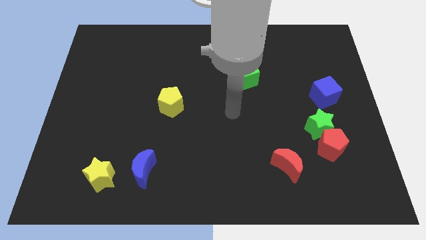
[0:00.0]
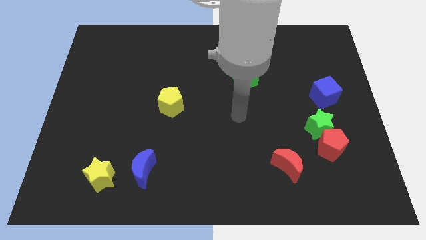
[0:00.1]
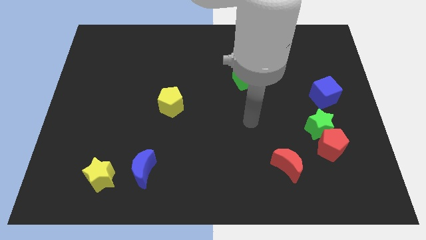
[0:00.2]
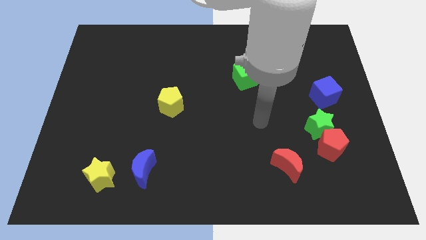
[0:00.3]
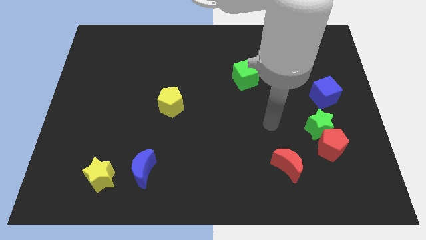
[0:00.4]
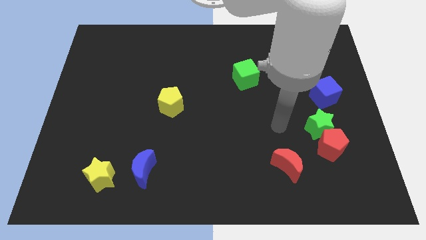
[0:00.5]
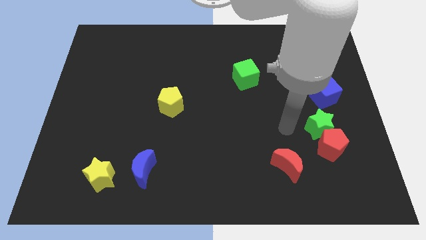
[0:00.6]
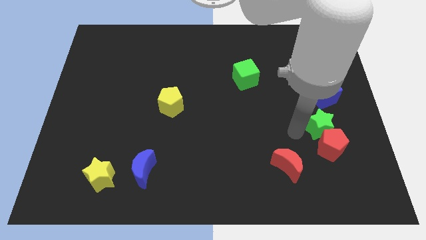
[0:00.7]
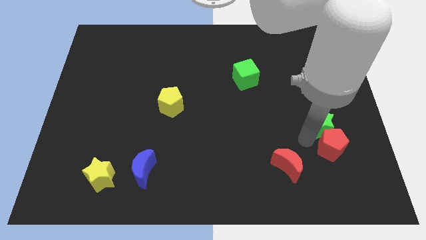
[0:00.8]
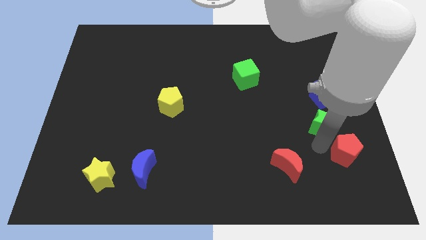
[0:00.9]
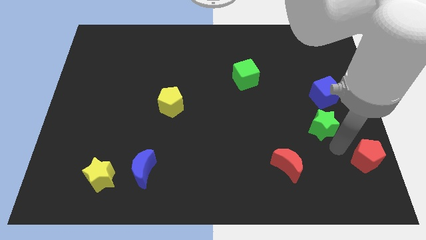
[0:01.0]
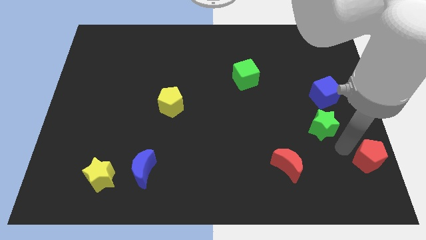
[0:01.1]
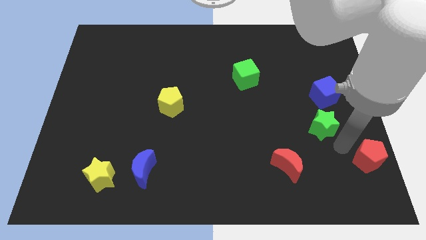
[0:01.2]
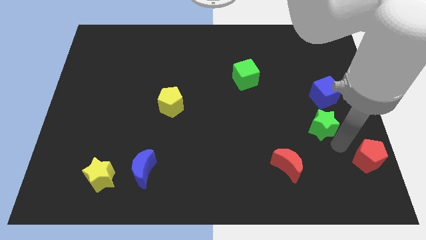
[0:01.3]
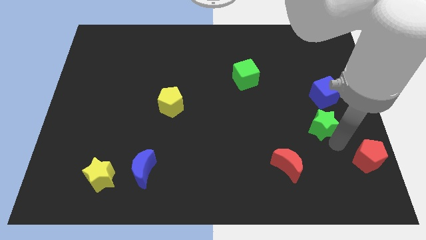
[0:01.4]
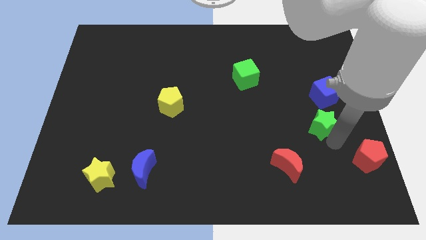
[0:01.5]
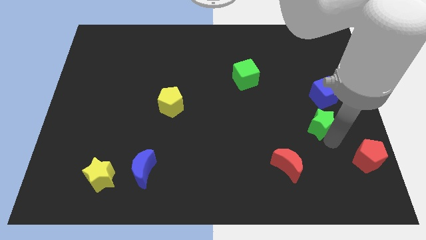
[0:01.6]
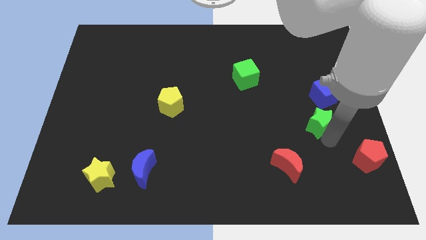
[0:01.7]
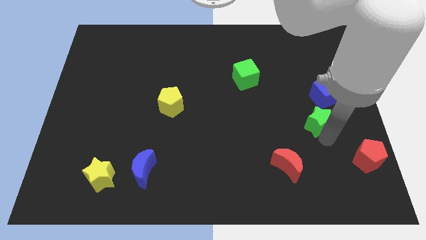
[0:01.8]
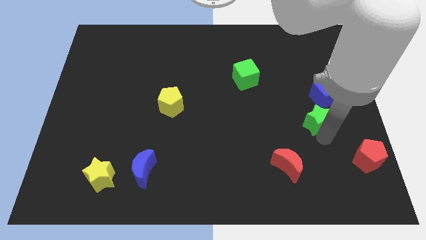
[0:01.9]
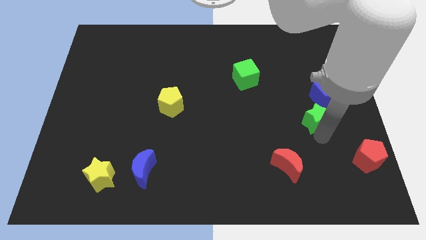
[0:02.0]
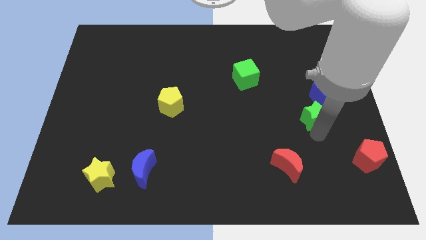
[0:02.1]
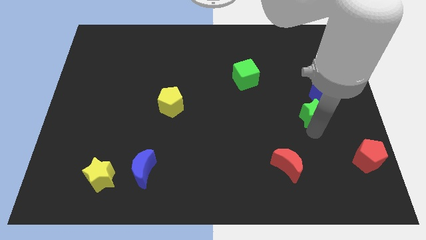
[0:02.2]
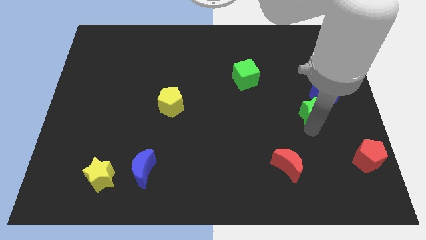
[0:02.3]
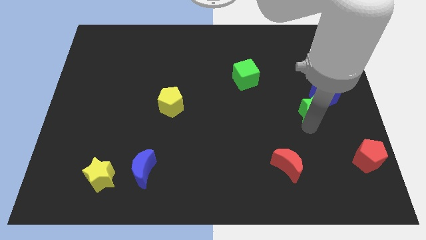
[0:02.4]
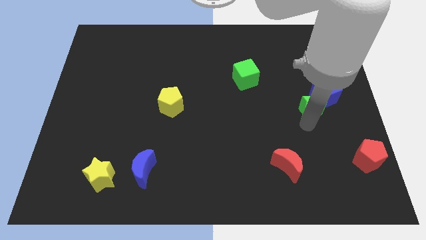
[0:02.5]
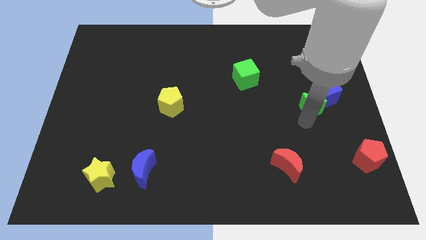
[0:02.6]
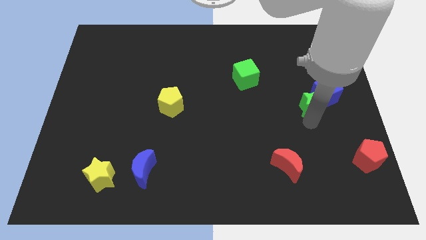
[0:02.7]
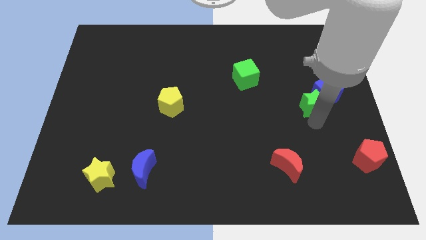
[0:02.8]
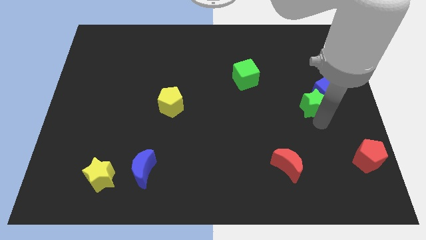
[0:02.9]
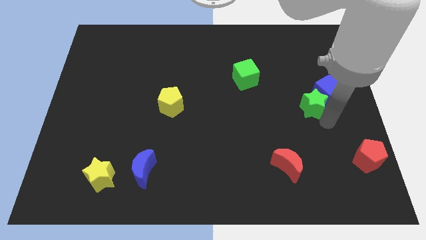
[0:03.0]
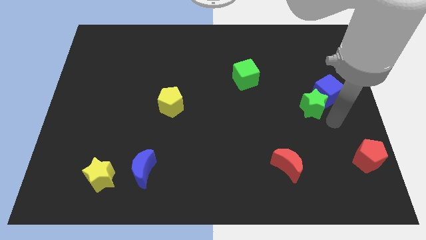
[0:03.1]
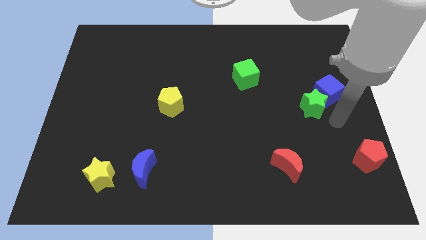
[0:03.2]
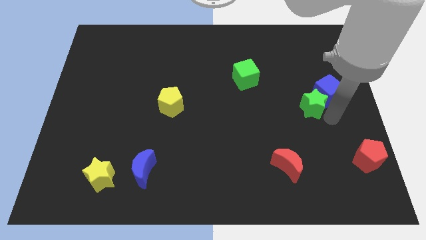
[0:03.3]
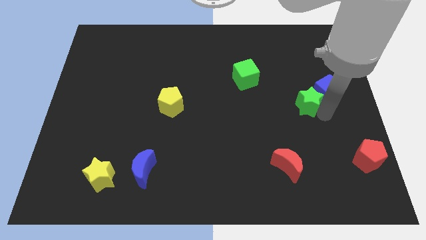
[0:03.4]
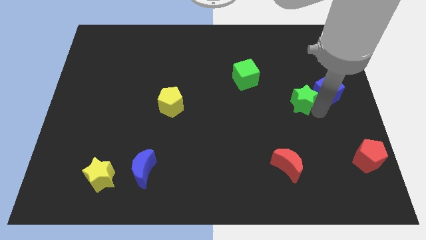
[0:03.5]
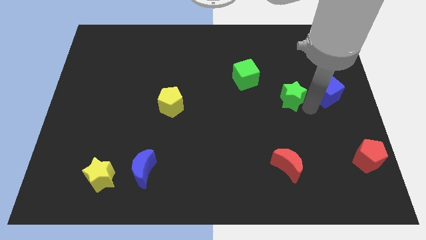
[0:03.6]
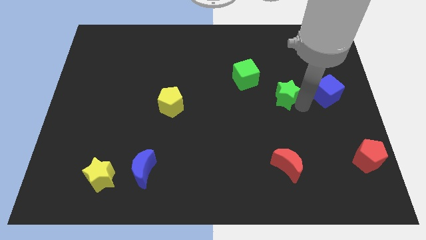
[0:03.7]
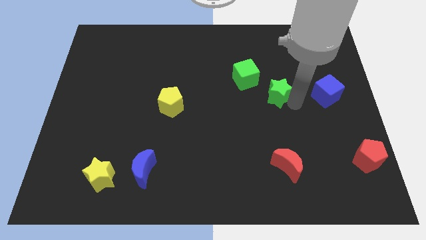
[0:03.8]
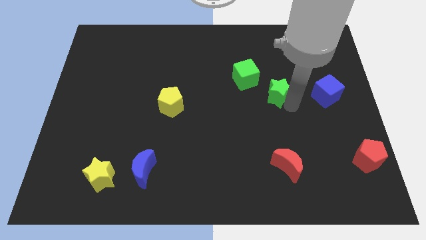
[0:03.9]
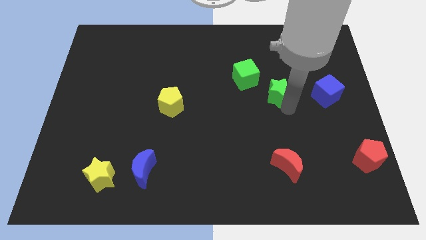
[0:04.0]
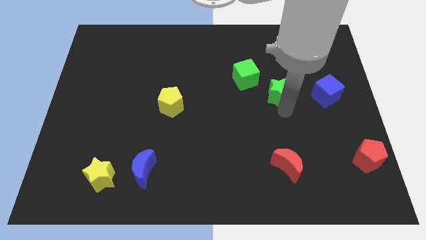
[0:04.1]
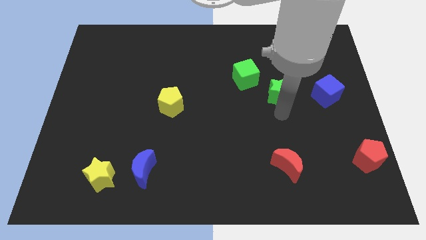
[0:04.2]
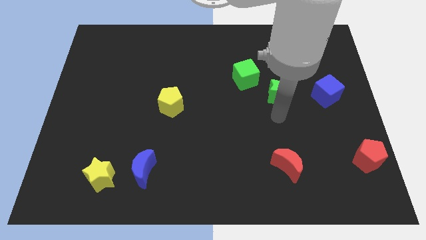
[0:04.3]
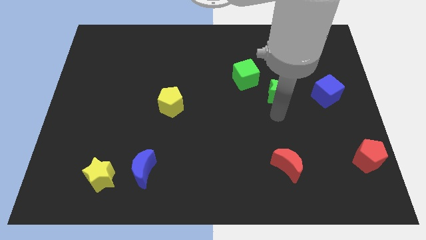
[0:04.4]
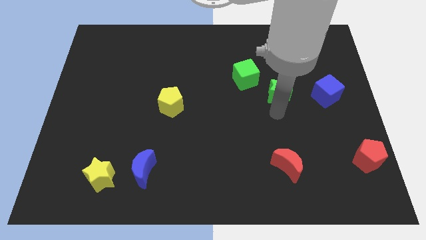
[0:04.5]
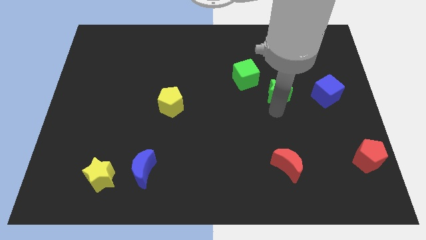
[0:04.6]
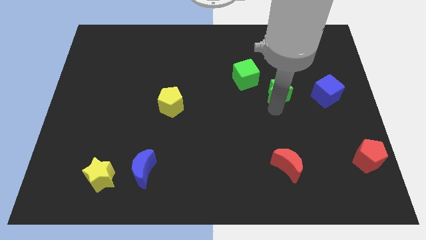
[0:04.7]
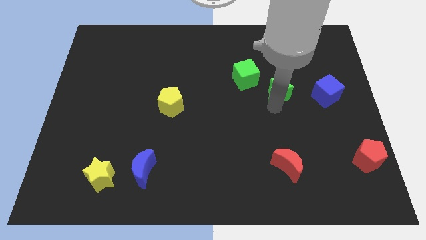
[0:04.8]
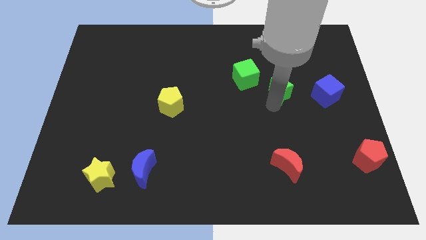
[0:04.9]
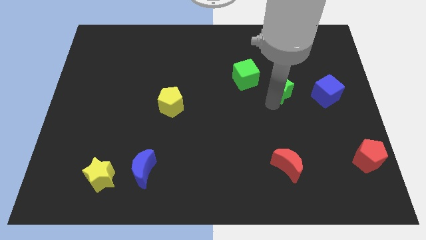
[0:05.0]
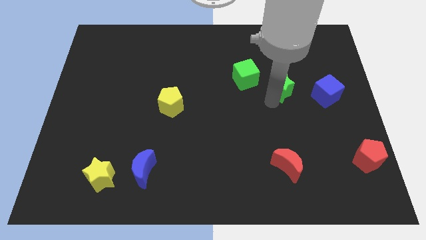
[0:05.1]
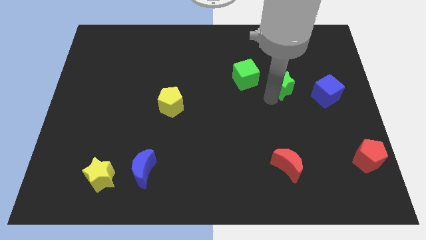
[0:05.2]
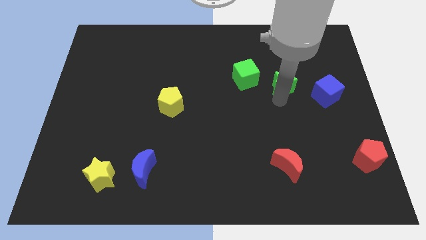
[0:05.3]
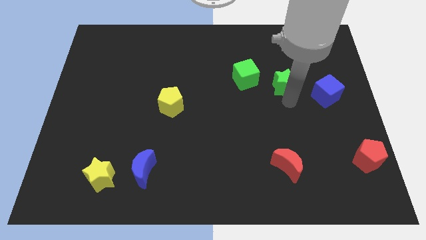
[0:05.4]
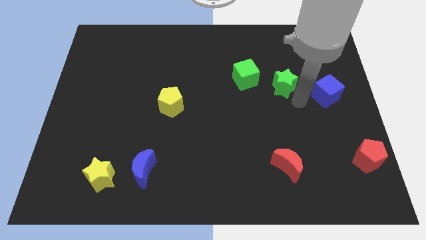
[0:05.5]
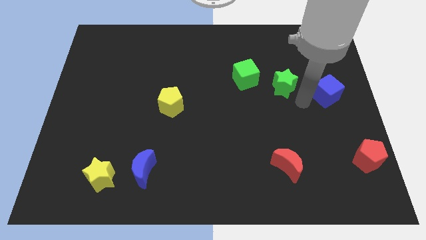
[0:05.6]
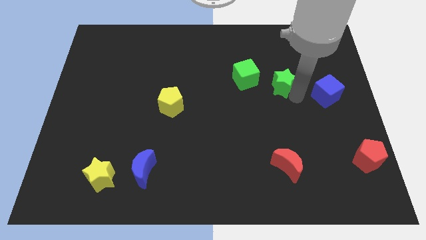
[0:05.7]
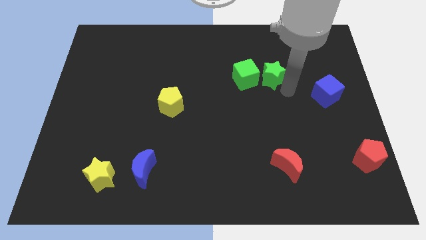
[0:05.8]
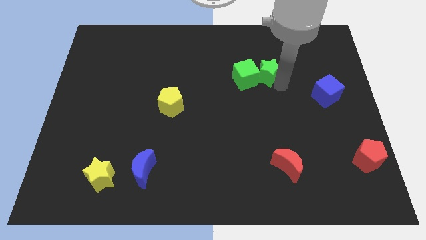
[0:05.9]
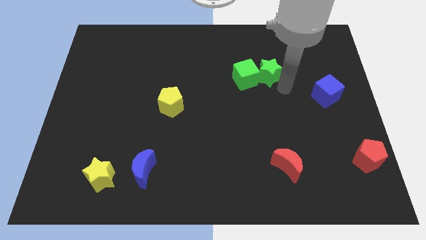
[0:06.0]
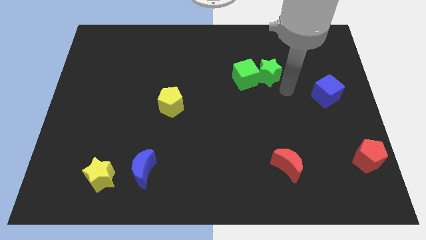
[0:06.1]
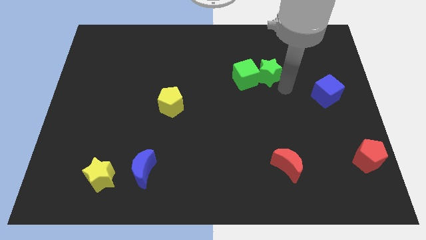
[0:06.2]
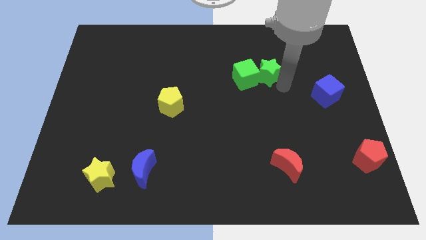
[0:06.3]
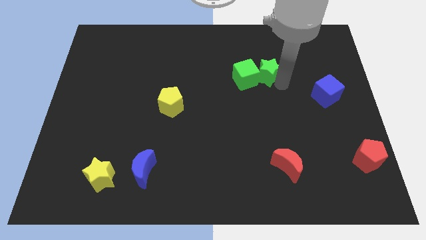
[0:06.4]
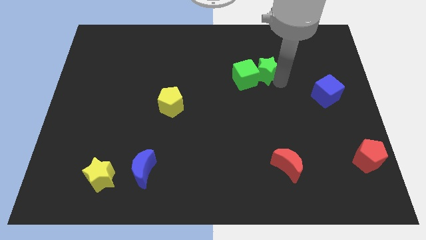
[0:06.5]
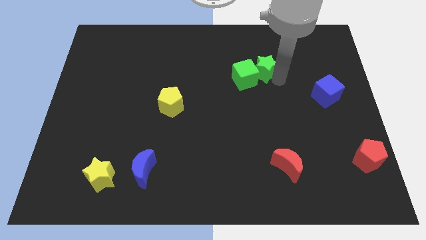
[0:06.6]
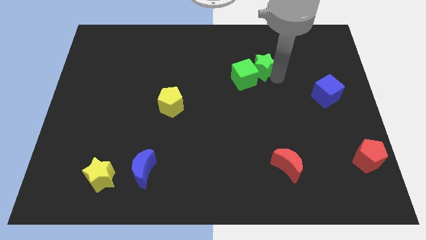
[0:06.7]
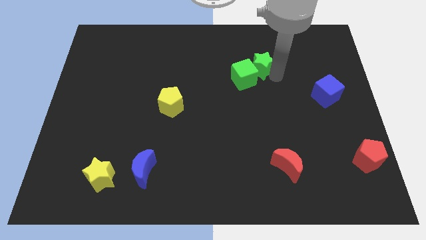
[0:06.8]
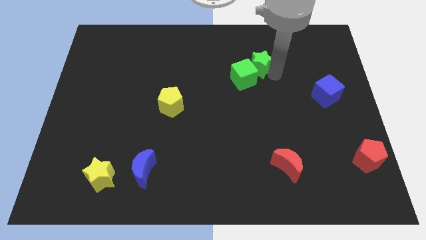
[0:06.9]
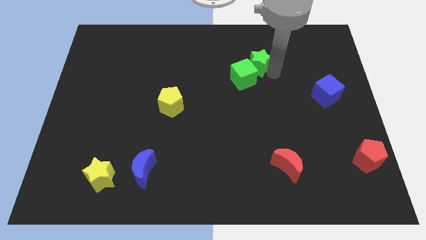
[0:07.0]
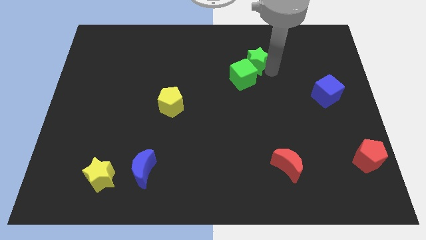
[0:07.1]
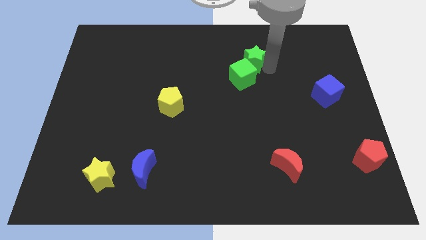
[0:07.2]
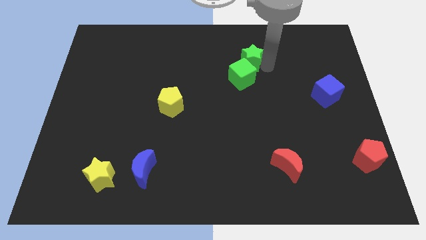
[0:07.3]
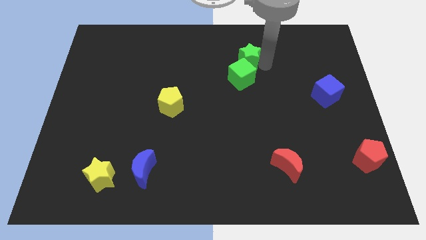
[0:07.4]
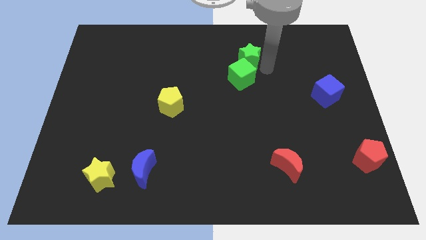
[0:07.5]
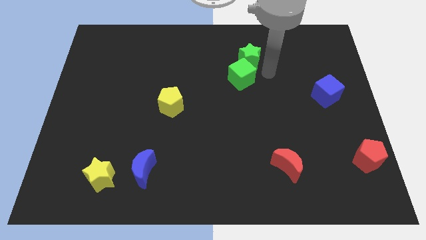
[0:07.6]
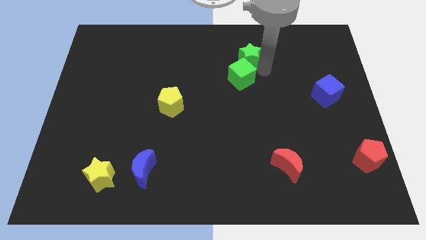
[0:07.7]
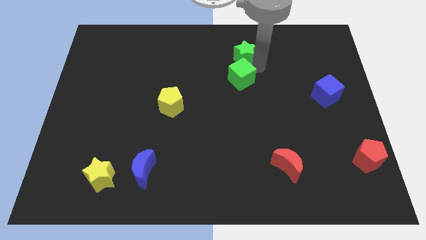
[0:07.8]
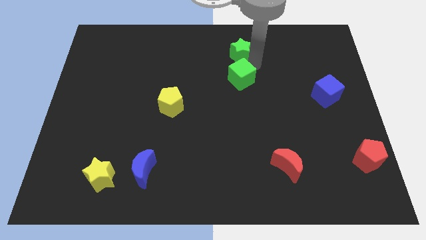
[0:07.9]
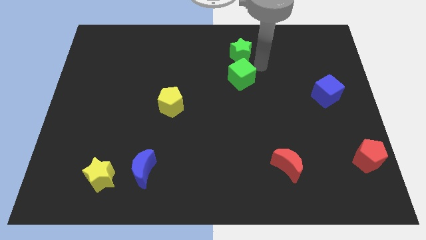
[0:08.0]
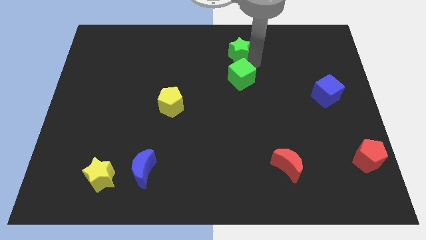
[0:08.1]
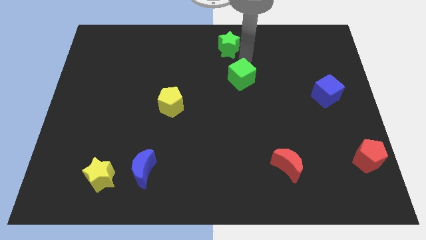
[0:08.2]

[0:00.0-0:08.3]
move the green star to the top side
